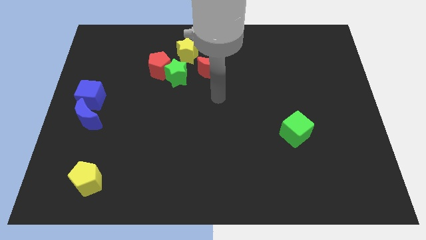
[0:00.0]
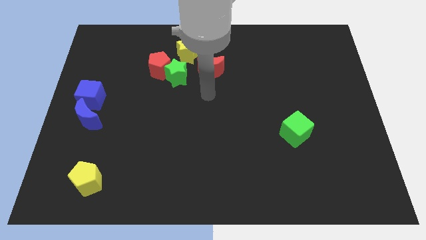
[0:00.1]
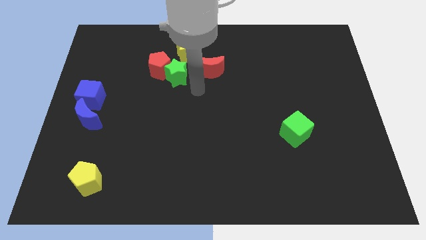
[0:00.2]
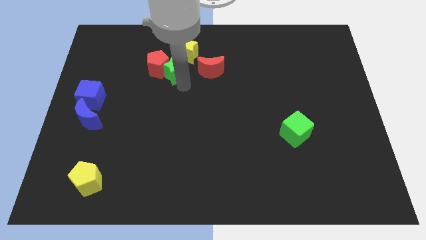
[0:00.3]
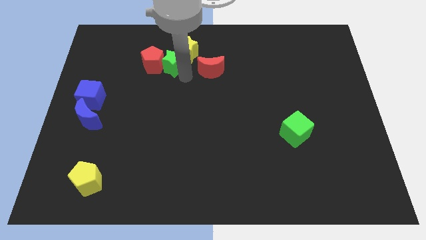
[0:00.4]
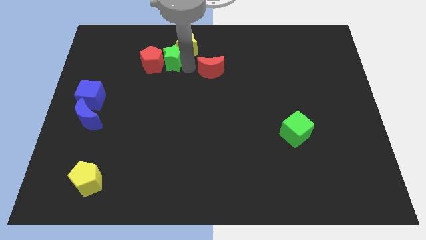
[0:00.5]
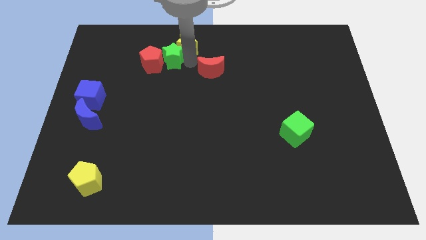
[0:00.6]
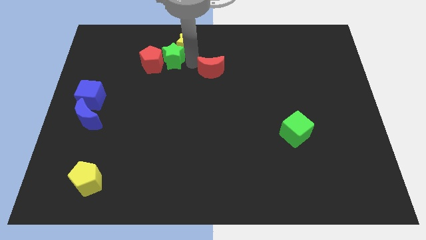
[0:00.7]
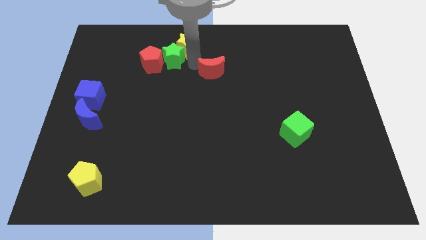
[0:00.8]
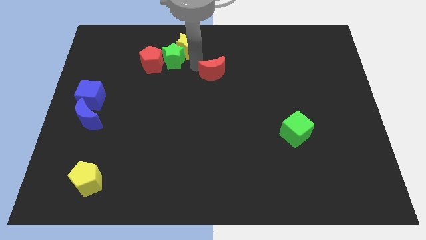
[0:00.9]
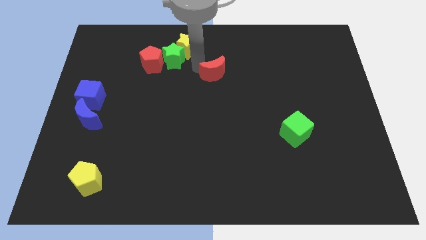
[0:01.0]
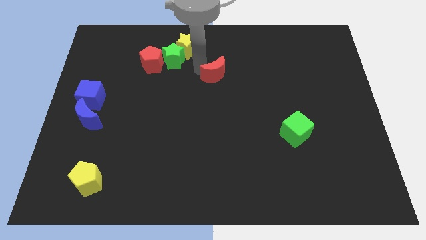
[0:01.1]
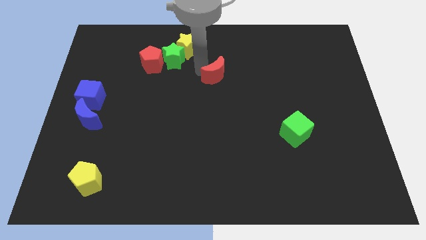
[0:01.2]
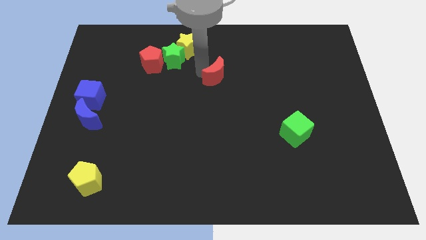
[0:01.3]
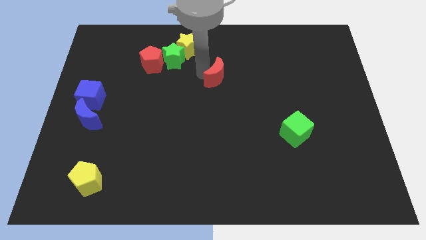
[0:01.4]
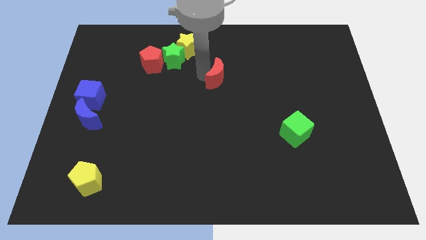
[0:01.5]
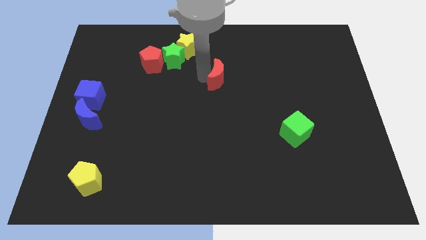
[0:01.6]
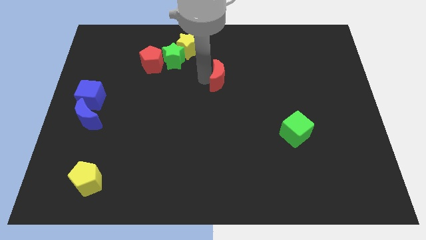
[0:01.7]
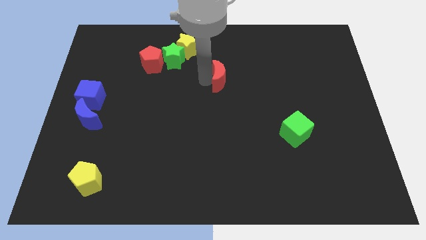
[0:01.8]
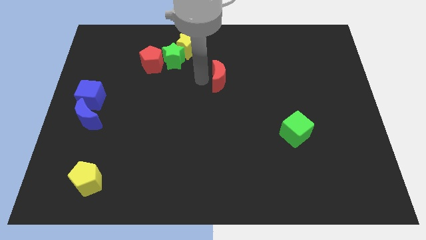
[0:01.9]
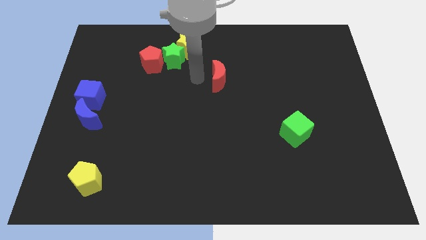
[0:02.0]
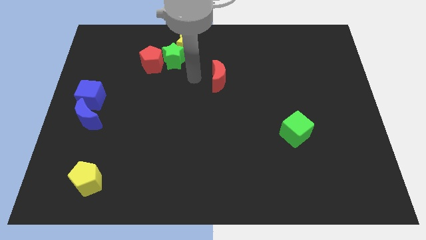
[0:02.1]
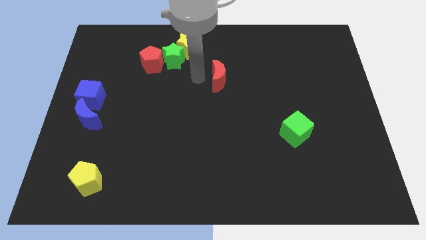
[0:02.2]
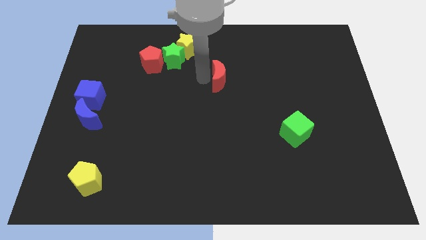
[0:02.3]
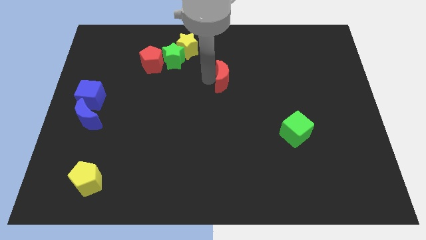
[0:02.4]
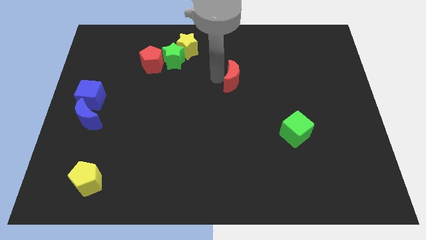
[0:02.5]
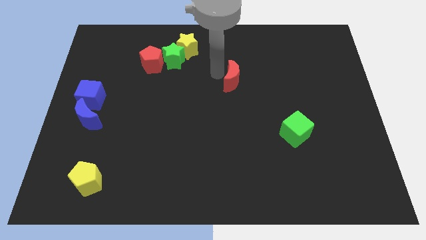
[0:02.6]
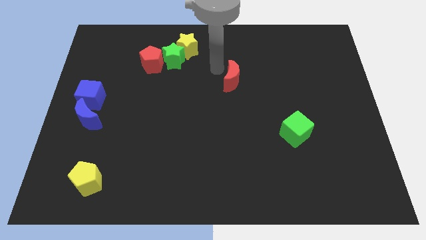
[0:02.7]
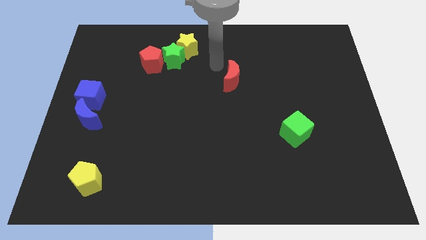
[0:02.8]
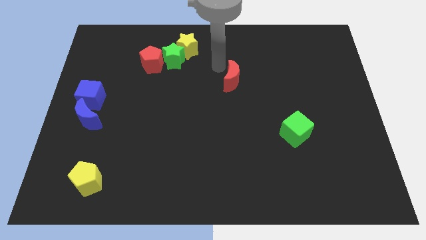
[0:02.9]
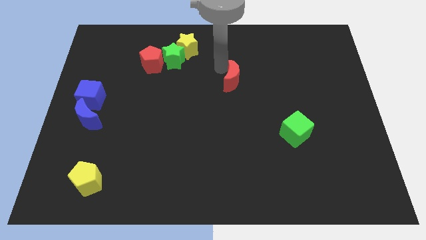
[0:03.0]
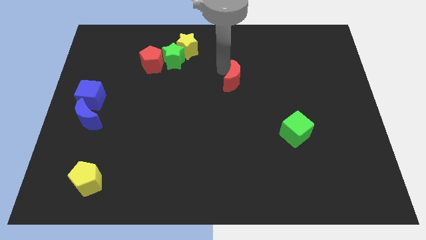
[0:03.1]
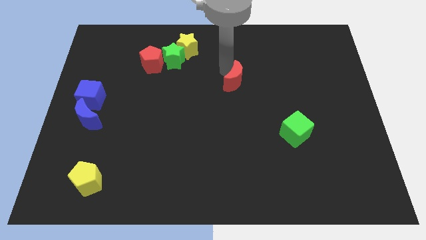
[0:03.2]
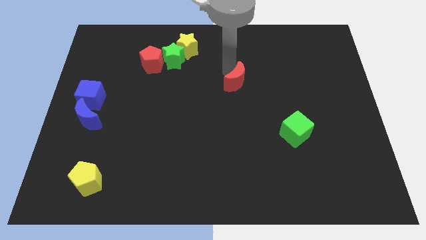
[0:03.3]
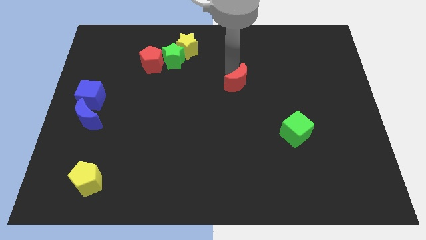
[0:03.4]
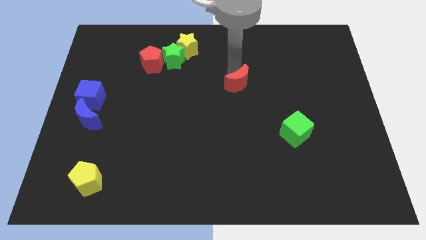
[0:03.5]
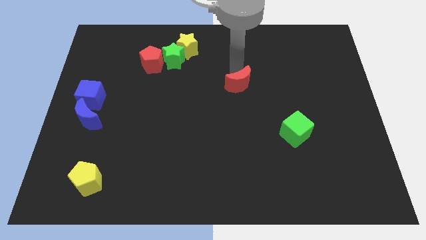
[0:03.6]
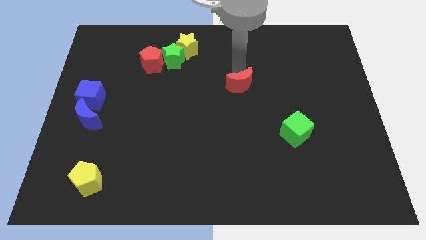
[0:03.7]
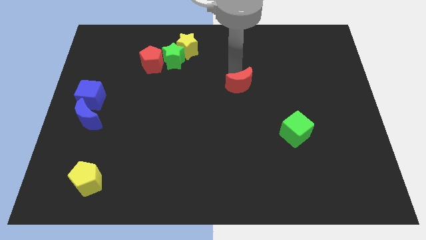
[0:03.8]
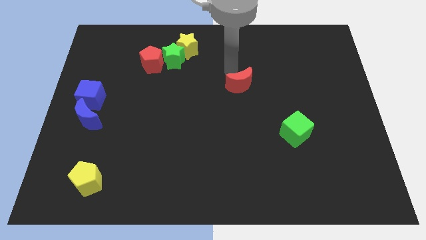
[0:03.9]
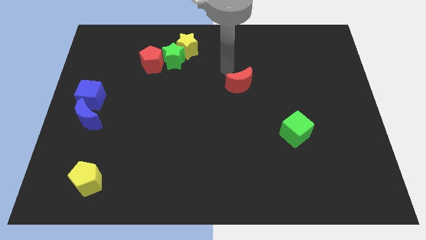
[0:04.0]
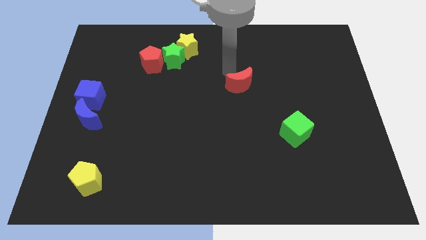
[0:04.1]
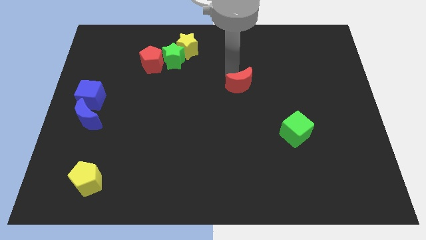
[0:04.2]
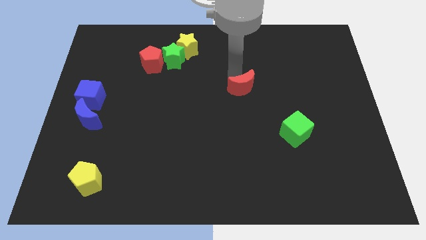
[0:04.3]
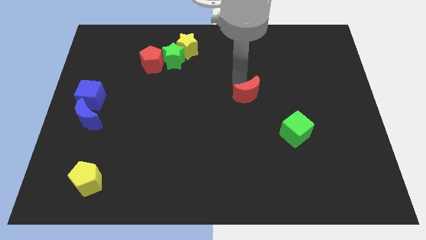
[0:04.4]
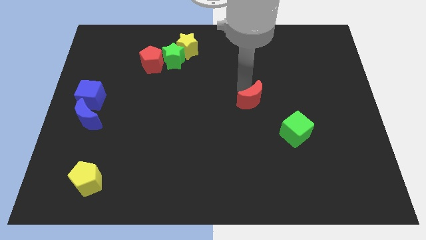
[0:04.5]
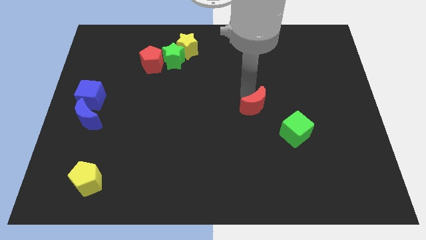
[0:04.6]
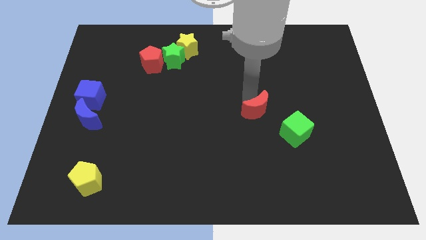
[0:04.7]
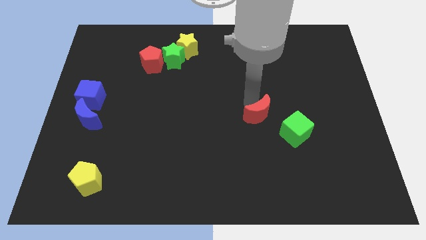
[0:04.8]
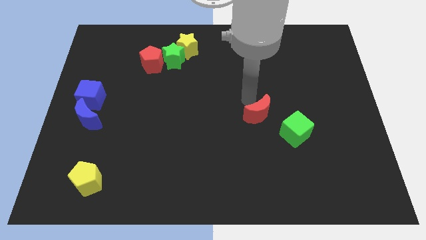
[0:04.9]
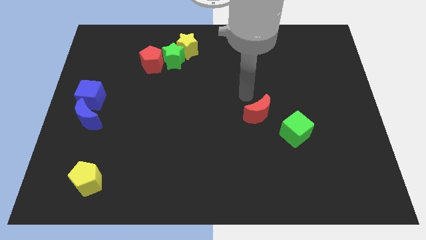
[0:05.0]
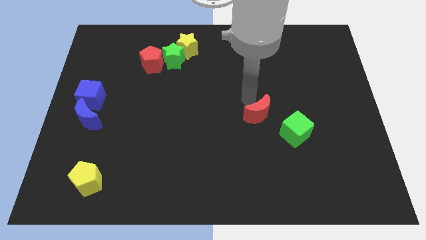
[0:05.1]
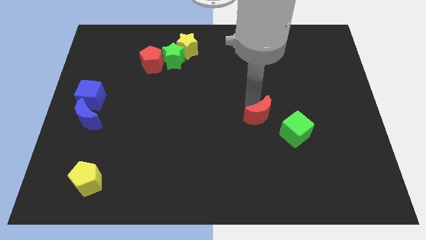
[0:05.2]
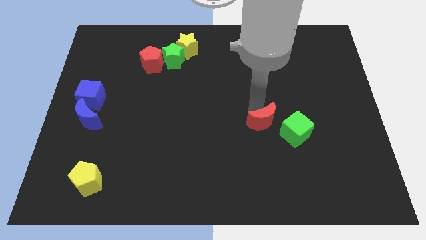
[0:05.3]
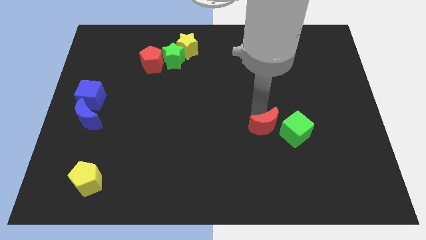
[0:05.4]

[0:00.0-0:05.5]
slide the red moon down and then to the right

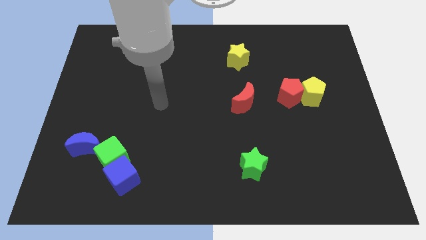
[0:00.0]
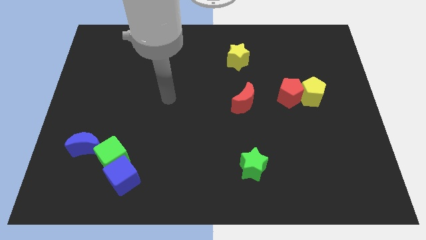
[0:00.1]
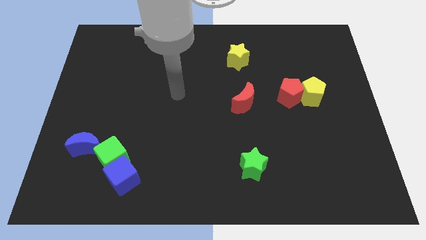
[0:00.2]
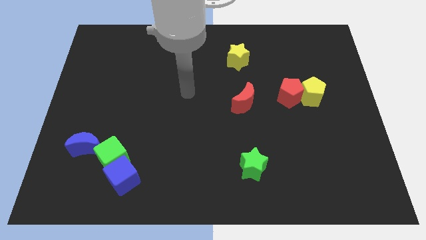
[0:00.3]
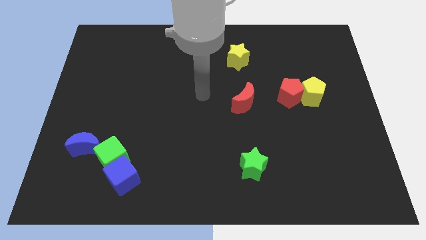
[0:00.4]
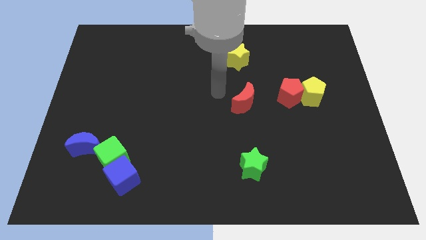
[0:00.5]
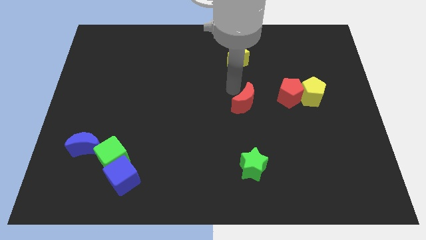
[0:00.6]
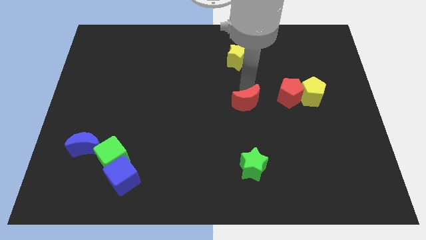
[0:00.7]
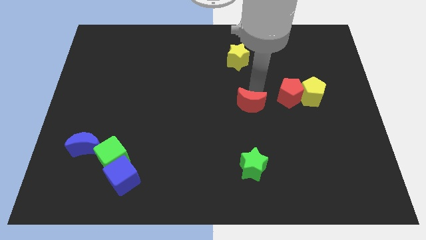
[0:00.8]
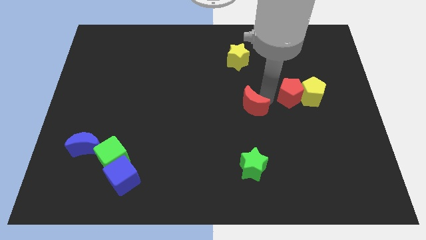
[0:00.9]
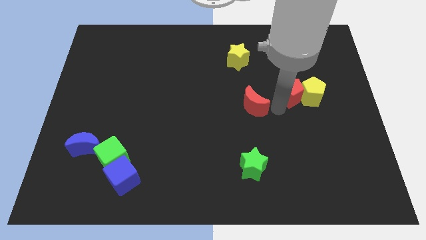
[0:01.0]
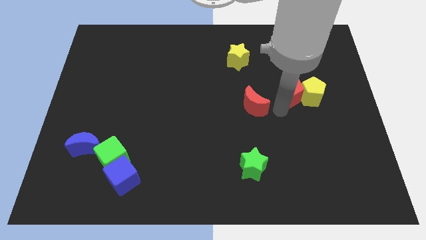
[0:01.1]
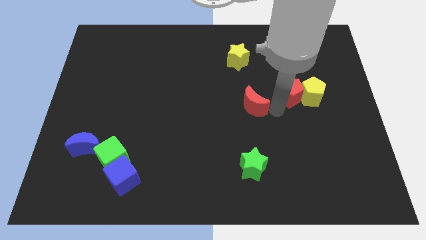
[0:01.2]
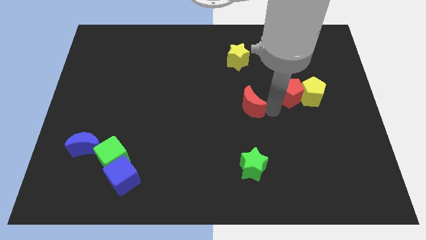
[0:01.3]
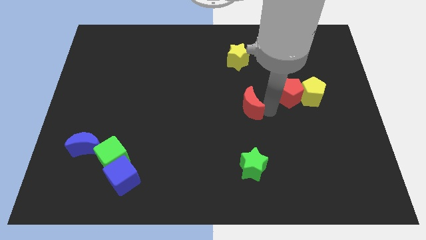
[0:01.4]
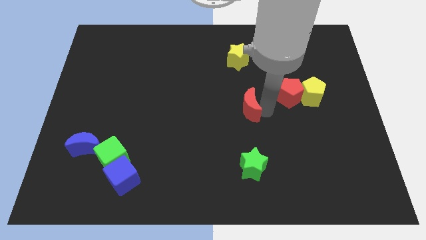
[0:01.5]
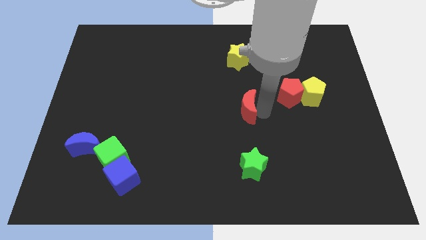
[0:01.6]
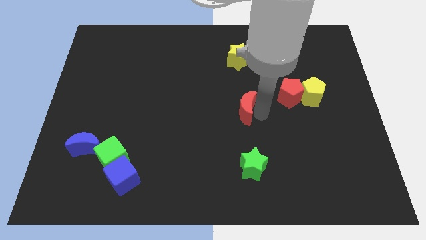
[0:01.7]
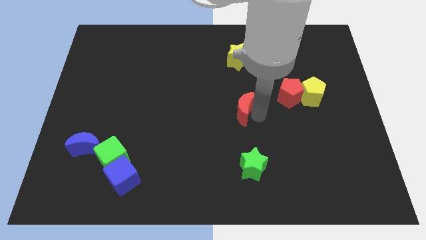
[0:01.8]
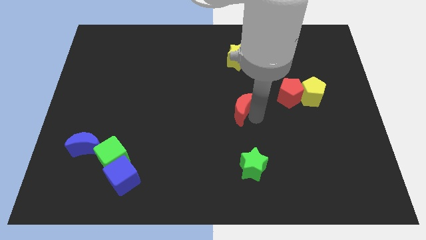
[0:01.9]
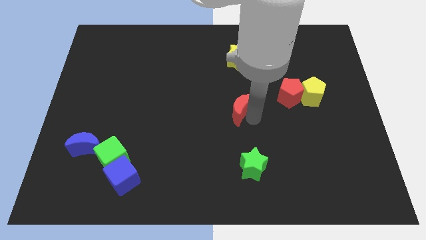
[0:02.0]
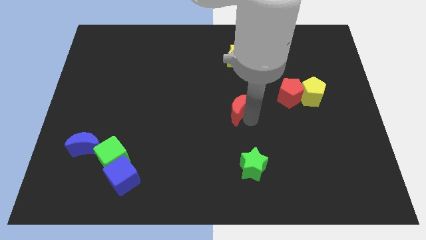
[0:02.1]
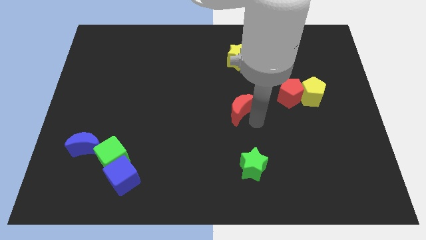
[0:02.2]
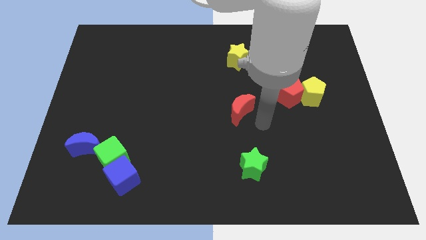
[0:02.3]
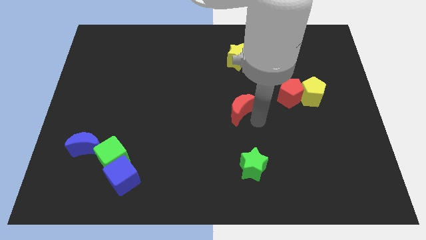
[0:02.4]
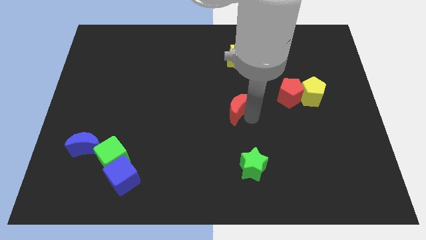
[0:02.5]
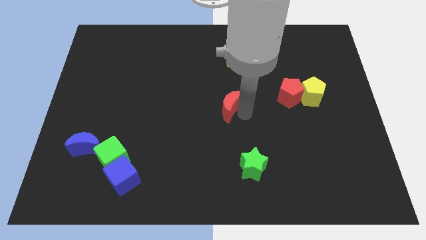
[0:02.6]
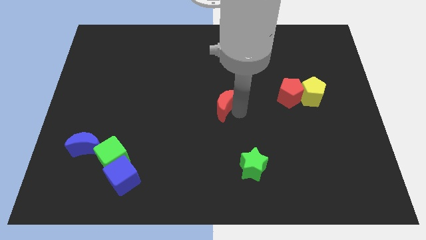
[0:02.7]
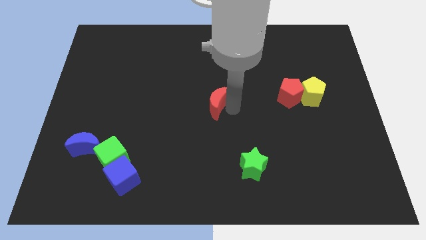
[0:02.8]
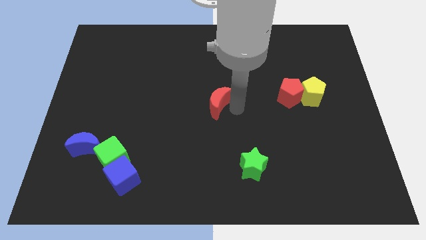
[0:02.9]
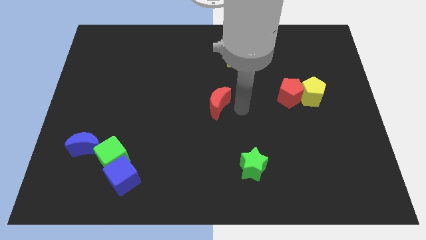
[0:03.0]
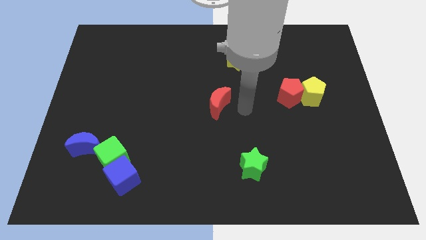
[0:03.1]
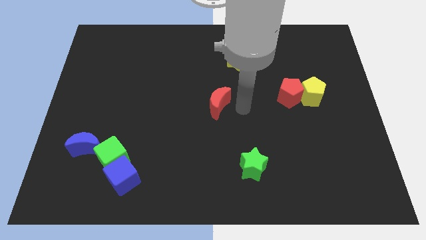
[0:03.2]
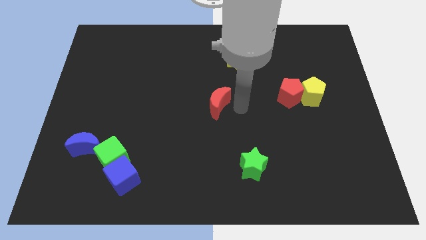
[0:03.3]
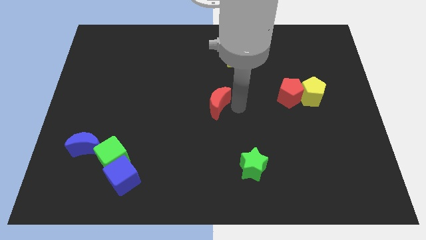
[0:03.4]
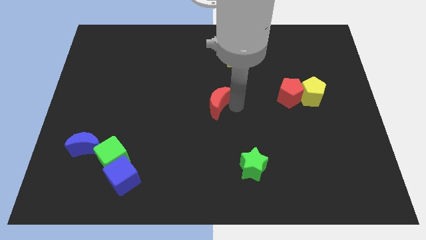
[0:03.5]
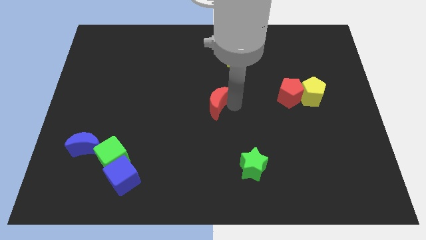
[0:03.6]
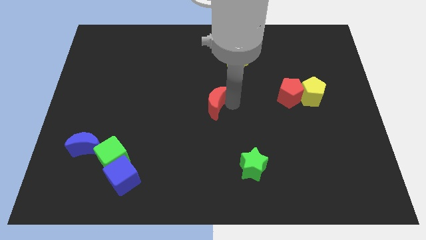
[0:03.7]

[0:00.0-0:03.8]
push the red moon to the left a little bit
